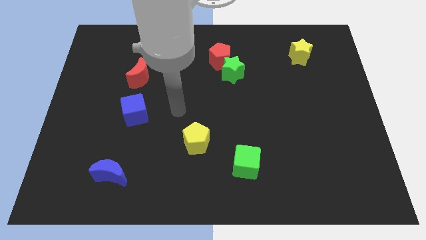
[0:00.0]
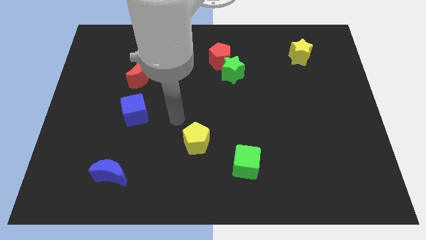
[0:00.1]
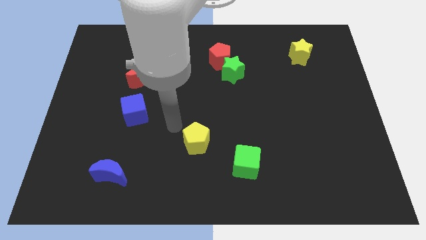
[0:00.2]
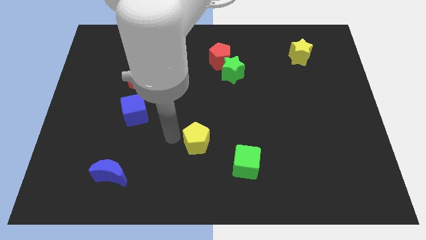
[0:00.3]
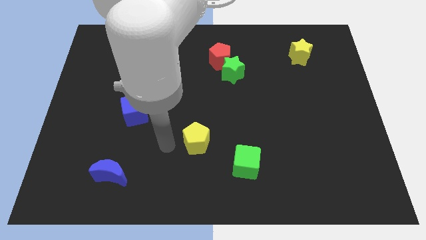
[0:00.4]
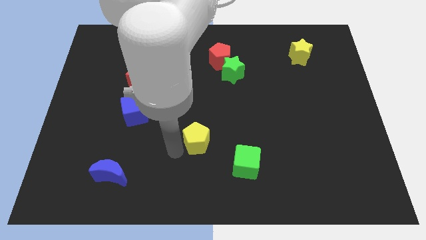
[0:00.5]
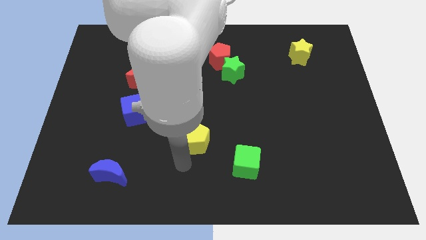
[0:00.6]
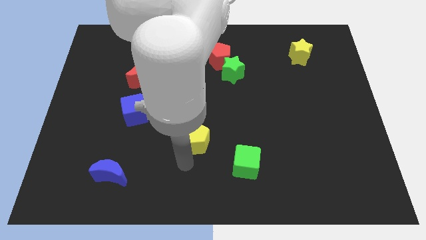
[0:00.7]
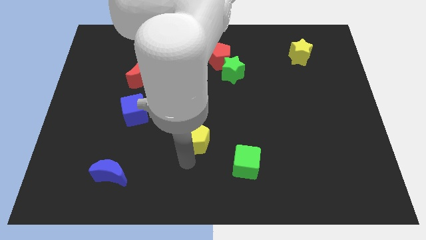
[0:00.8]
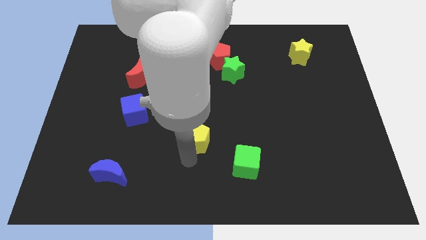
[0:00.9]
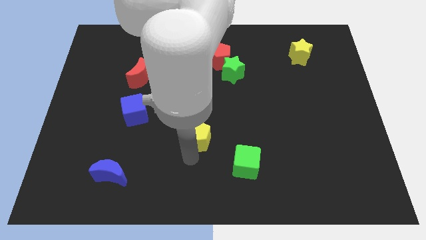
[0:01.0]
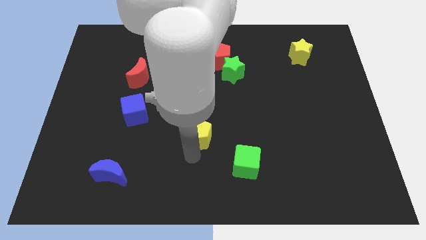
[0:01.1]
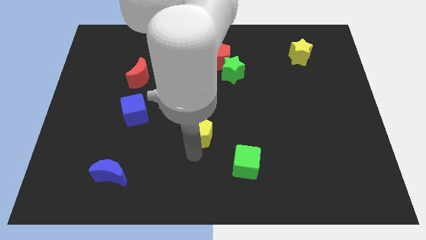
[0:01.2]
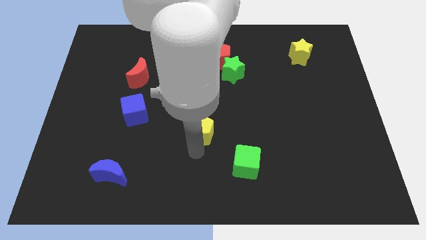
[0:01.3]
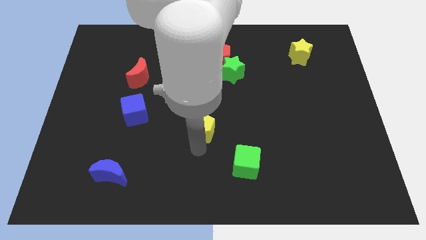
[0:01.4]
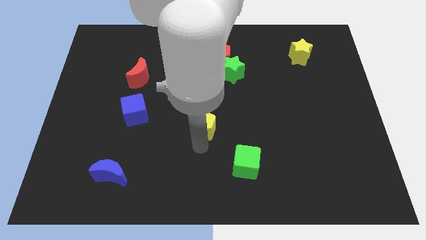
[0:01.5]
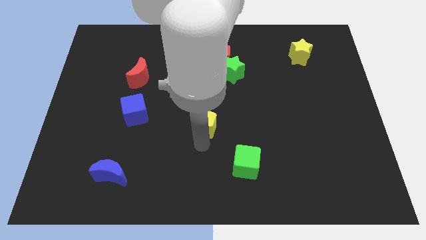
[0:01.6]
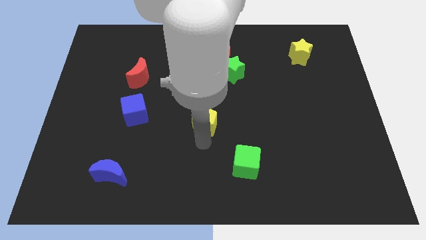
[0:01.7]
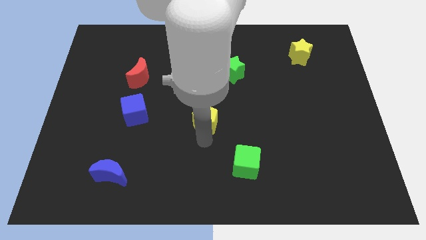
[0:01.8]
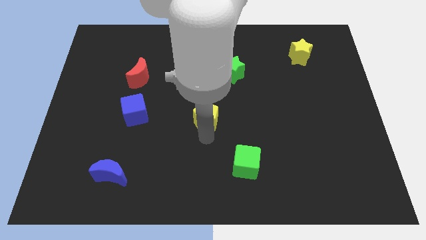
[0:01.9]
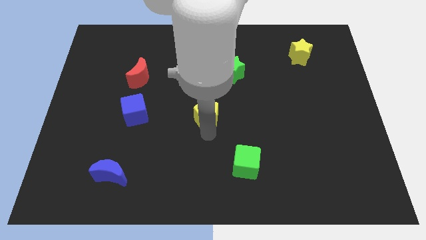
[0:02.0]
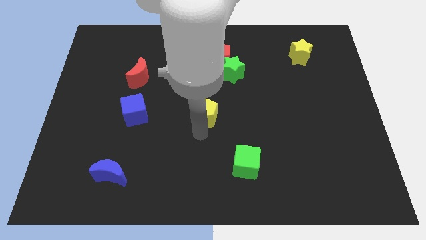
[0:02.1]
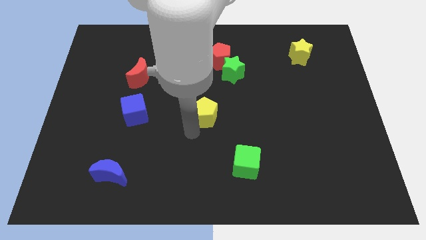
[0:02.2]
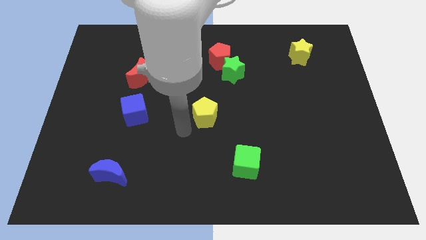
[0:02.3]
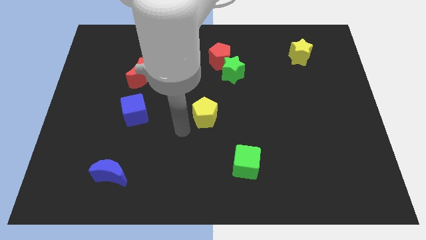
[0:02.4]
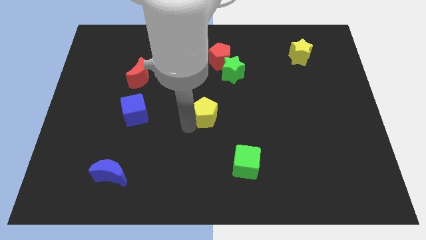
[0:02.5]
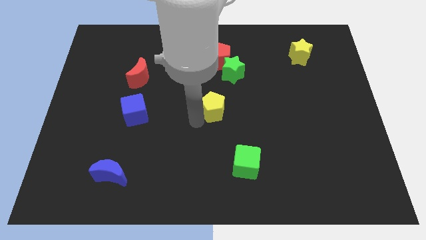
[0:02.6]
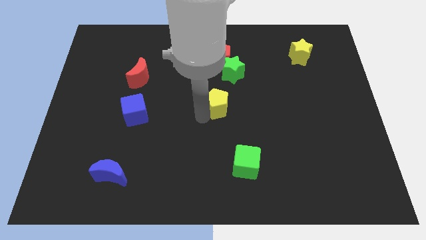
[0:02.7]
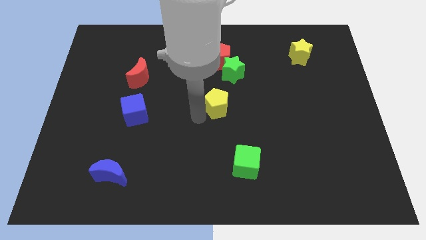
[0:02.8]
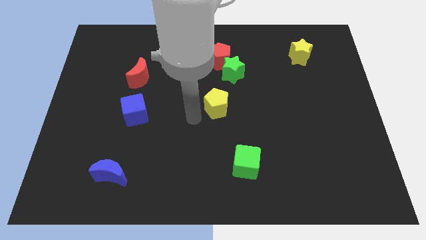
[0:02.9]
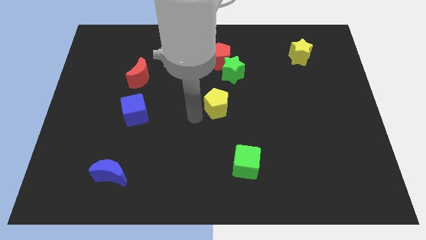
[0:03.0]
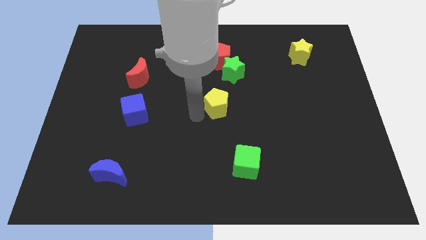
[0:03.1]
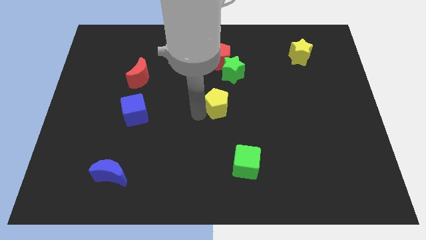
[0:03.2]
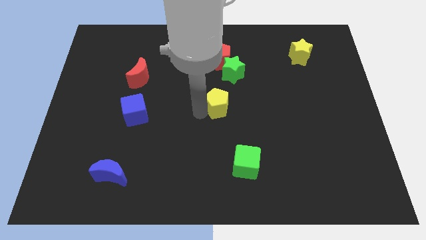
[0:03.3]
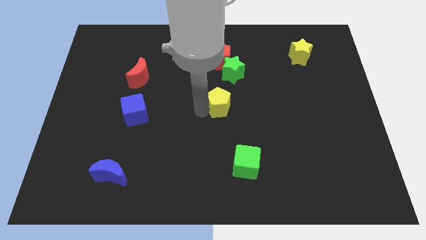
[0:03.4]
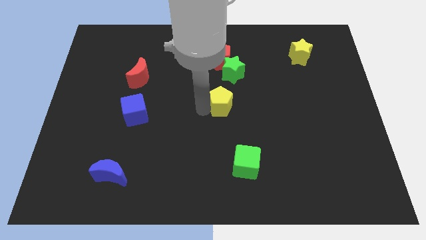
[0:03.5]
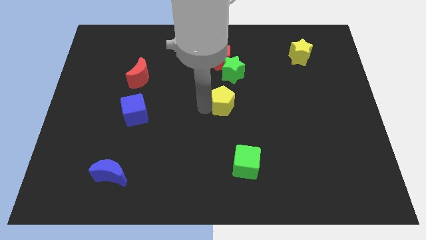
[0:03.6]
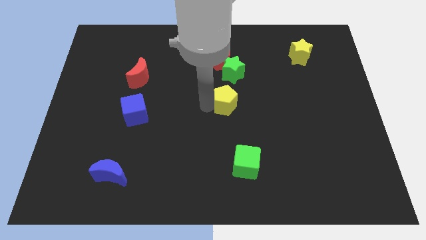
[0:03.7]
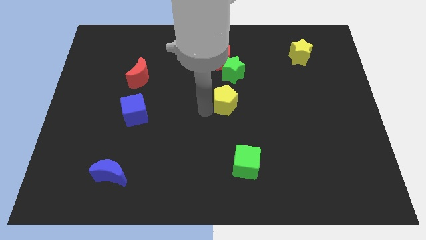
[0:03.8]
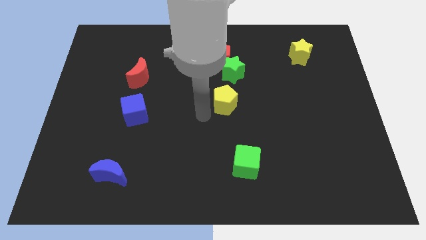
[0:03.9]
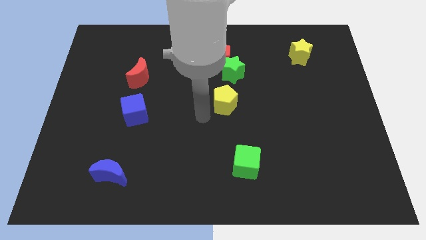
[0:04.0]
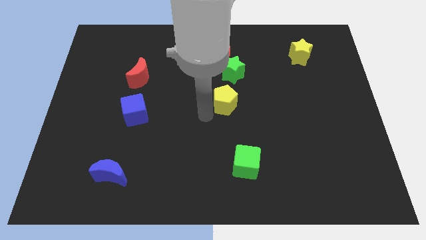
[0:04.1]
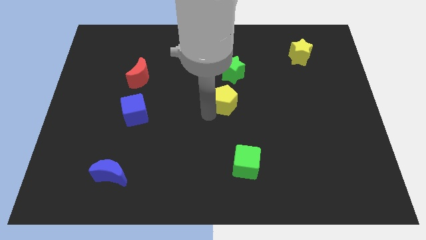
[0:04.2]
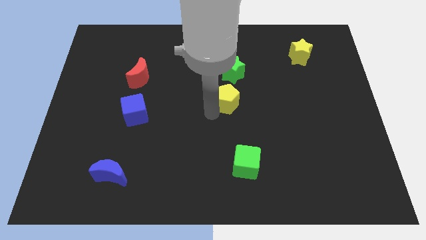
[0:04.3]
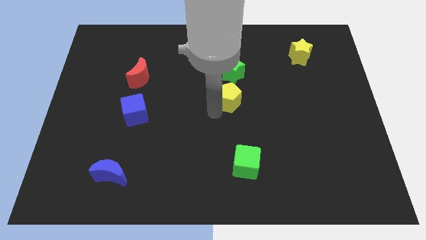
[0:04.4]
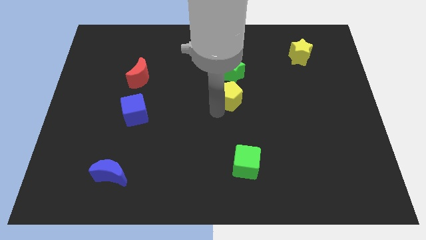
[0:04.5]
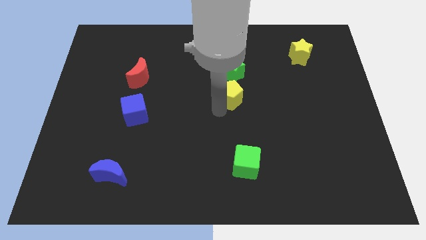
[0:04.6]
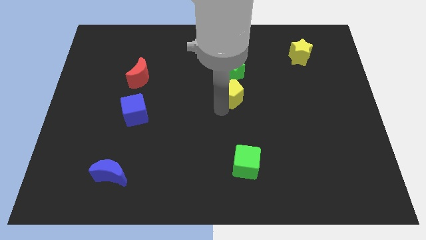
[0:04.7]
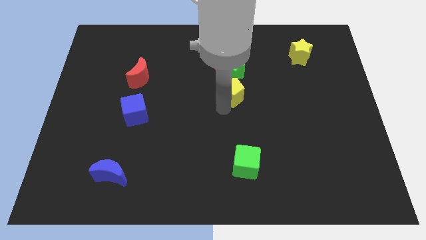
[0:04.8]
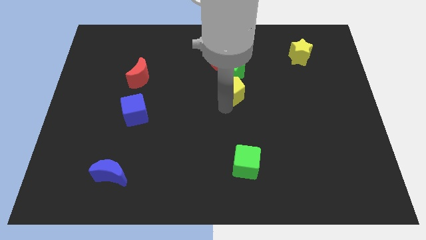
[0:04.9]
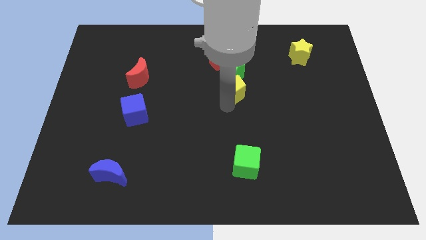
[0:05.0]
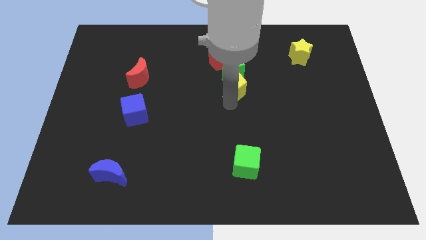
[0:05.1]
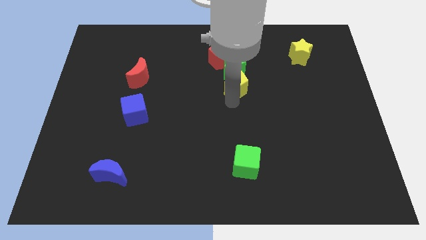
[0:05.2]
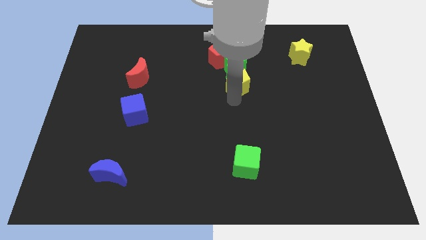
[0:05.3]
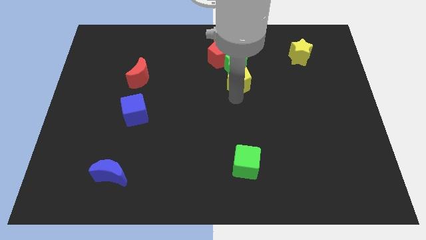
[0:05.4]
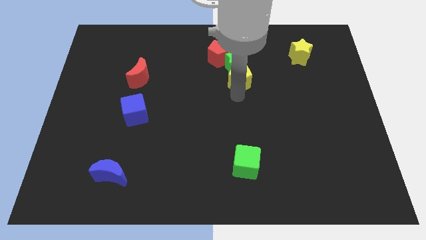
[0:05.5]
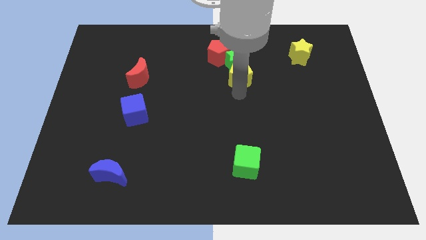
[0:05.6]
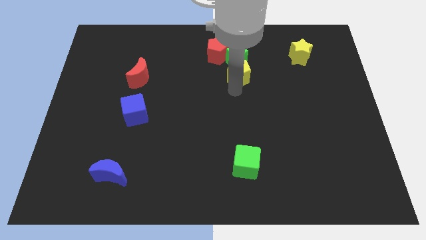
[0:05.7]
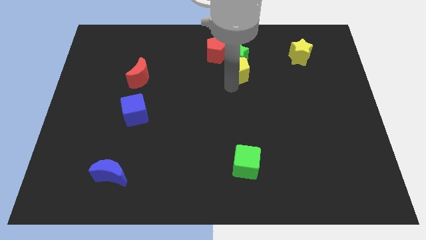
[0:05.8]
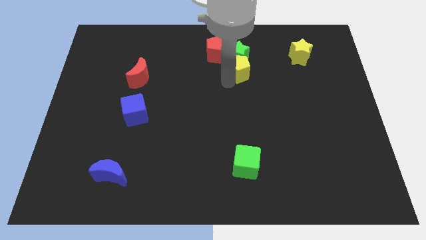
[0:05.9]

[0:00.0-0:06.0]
slide the yellow pentagon diagonally up and right

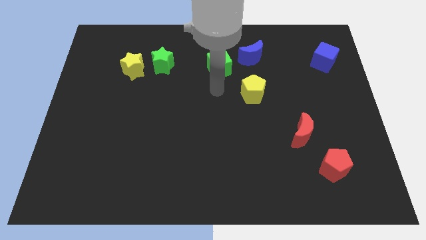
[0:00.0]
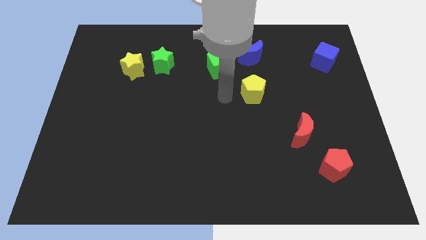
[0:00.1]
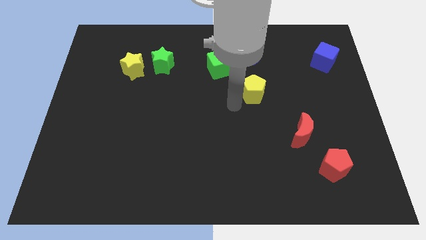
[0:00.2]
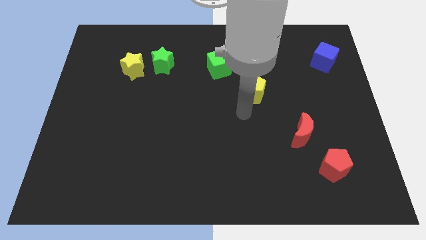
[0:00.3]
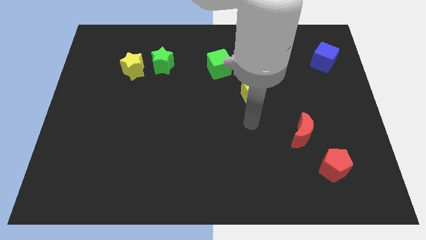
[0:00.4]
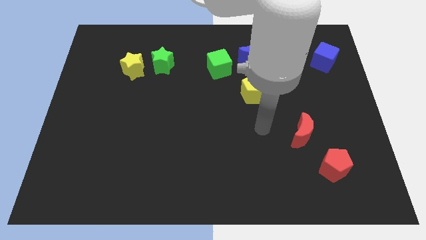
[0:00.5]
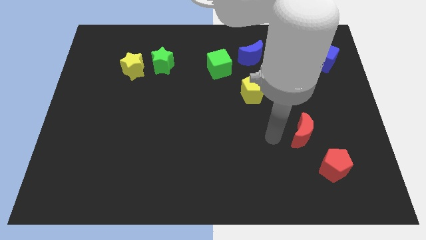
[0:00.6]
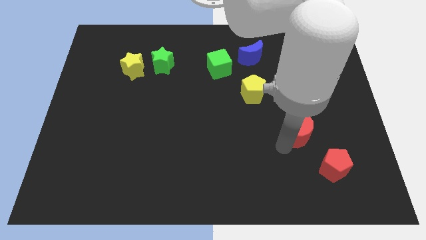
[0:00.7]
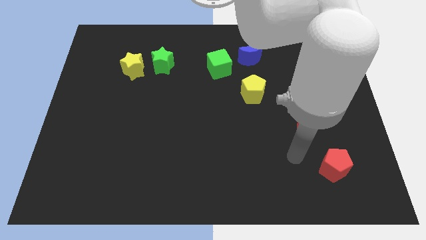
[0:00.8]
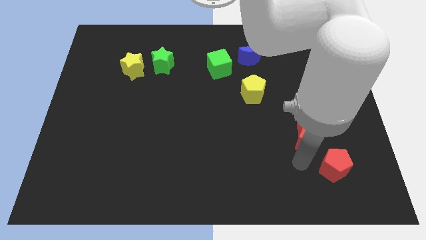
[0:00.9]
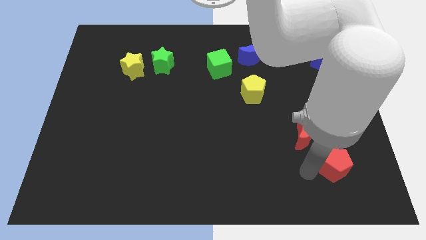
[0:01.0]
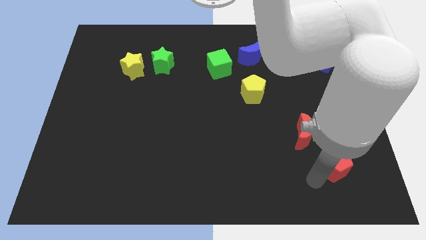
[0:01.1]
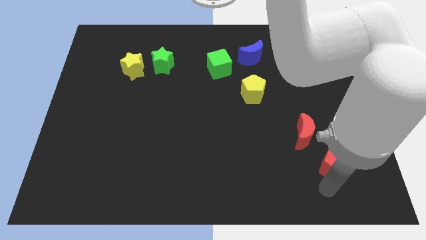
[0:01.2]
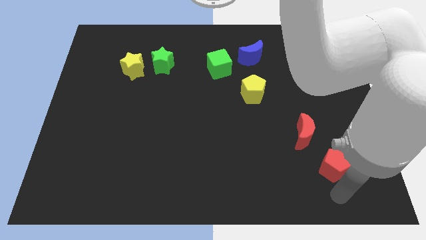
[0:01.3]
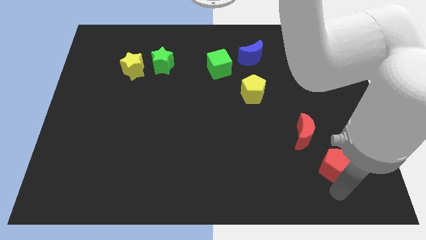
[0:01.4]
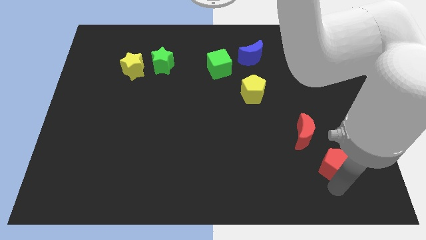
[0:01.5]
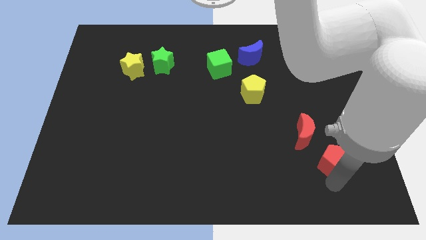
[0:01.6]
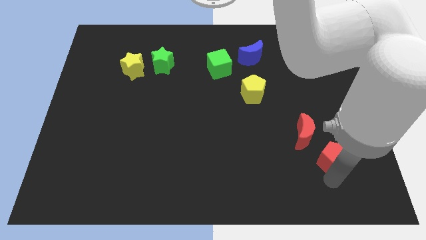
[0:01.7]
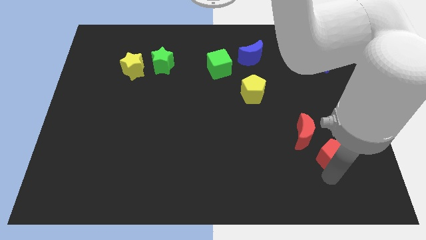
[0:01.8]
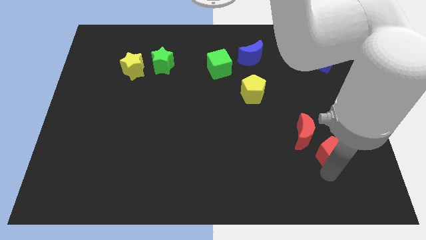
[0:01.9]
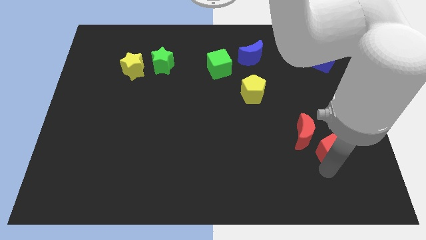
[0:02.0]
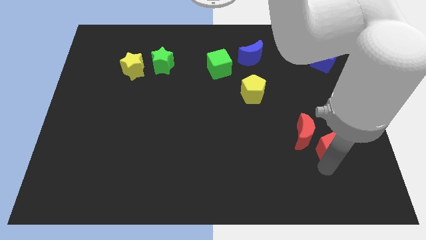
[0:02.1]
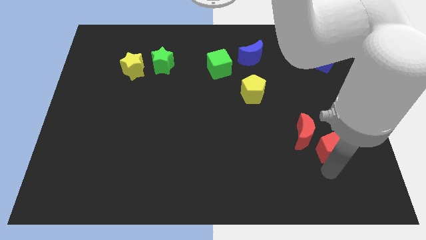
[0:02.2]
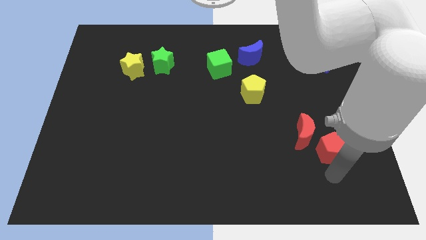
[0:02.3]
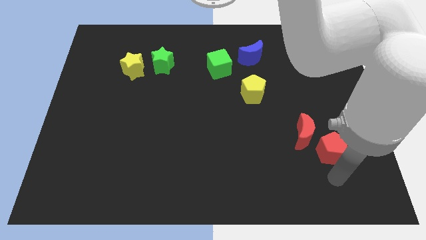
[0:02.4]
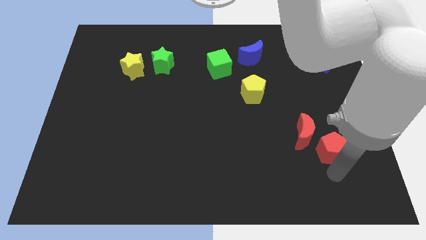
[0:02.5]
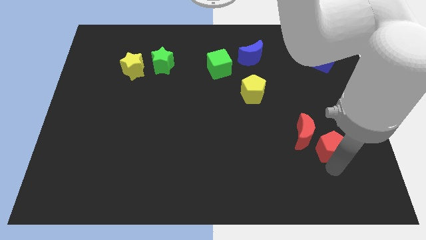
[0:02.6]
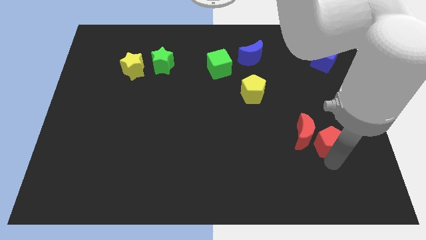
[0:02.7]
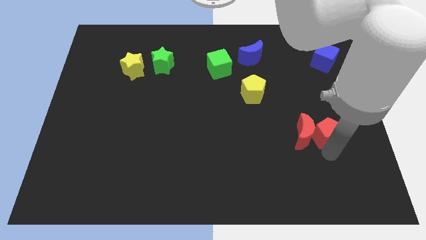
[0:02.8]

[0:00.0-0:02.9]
slightly slide the red pentagon up
